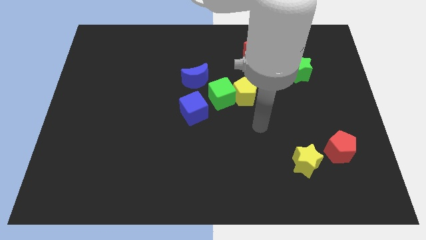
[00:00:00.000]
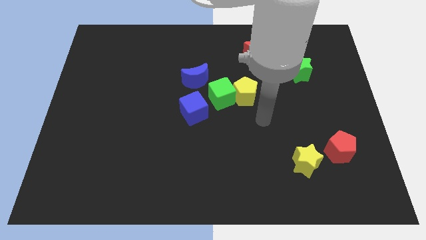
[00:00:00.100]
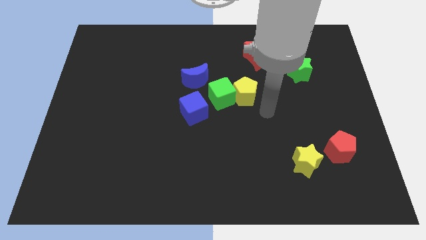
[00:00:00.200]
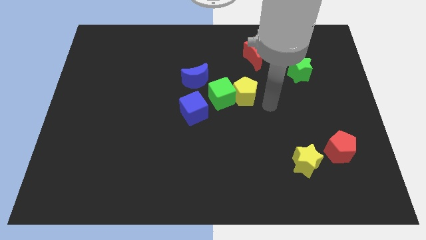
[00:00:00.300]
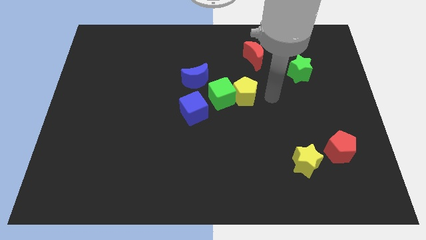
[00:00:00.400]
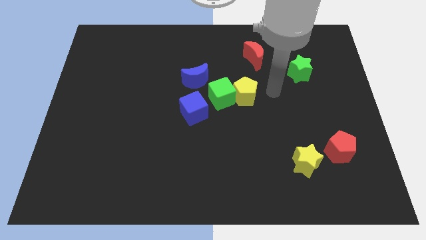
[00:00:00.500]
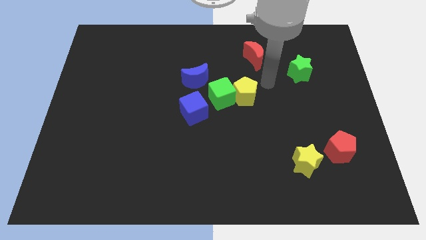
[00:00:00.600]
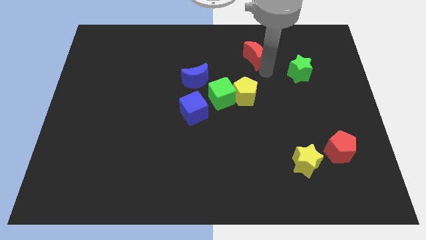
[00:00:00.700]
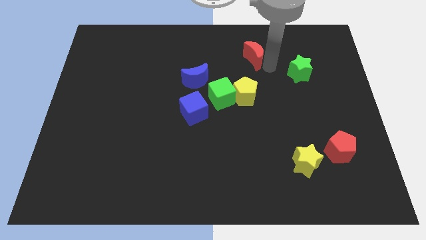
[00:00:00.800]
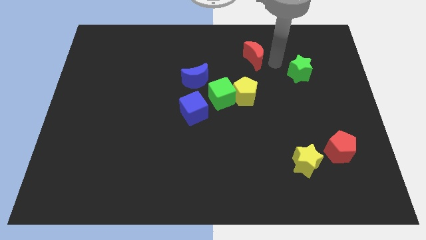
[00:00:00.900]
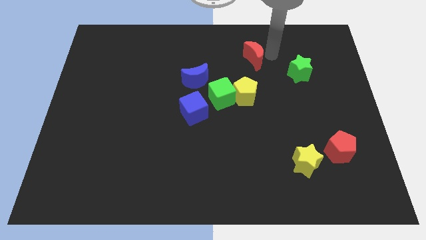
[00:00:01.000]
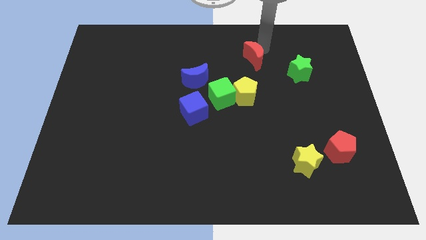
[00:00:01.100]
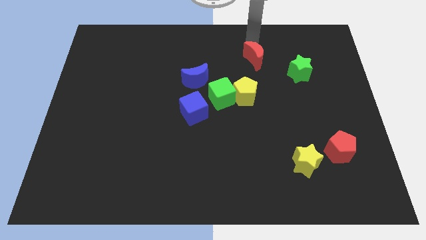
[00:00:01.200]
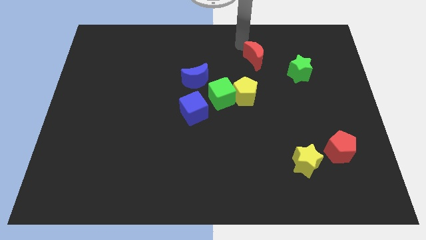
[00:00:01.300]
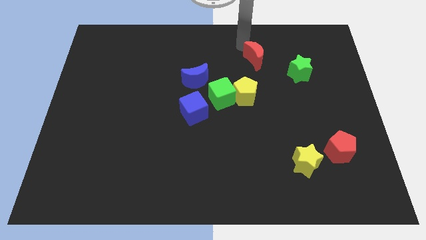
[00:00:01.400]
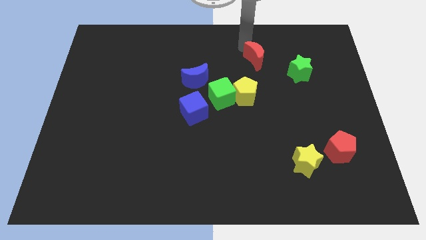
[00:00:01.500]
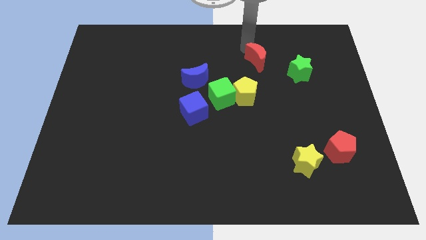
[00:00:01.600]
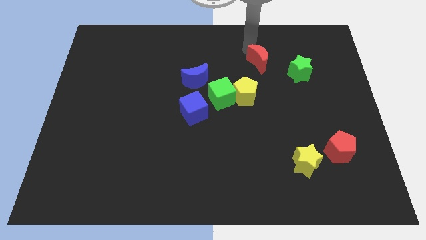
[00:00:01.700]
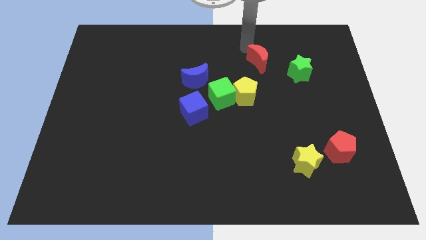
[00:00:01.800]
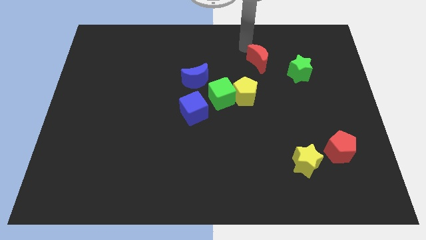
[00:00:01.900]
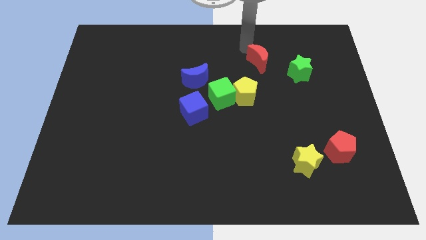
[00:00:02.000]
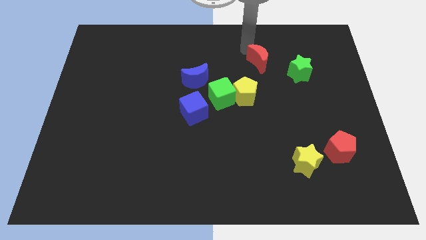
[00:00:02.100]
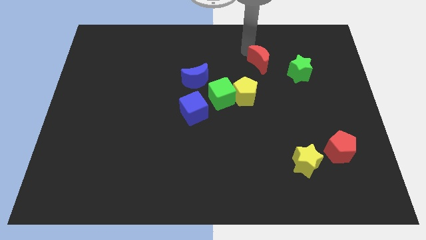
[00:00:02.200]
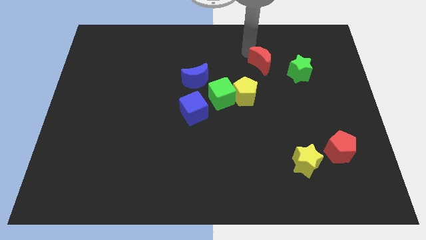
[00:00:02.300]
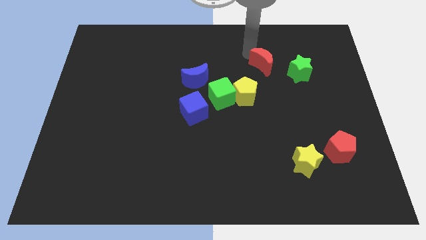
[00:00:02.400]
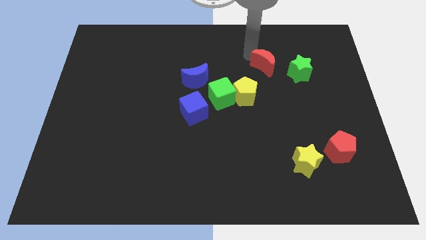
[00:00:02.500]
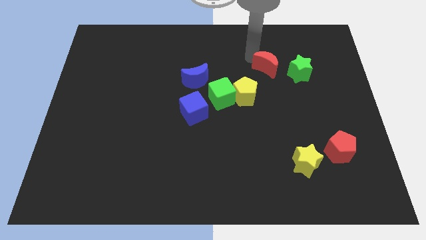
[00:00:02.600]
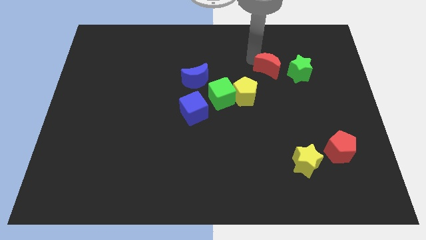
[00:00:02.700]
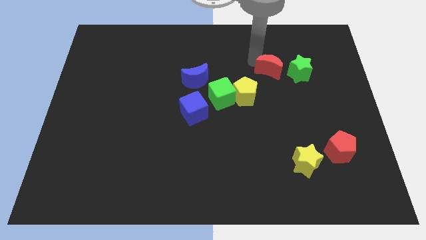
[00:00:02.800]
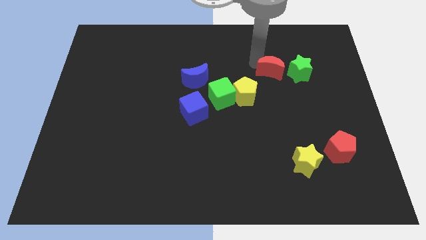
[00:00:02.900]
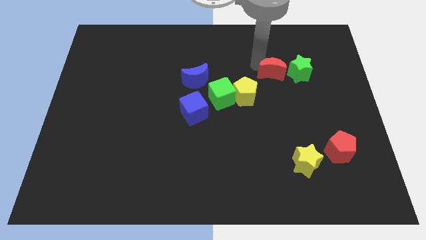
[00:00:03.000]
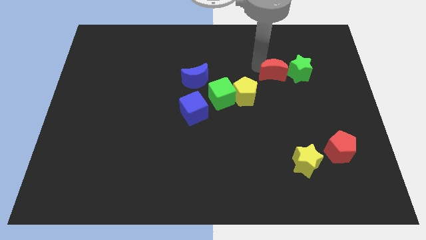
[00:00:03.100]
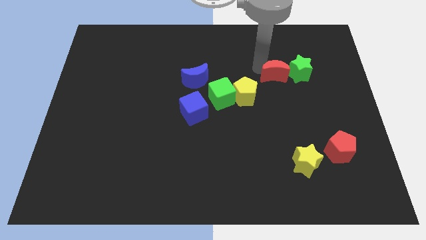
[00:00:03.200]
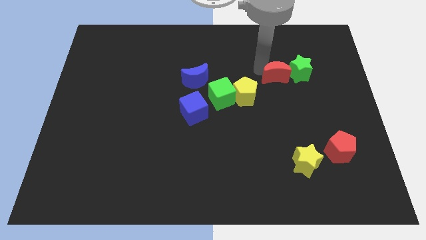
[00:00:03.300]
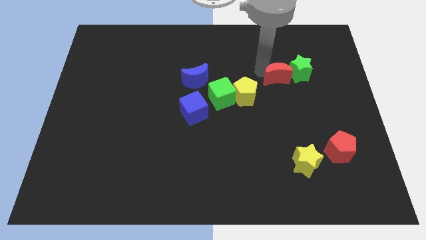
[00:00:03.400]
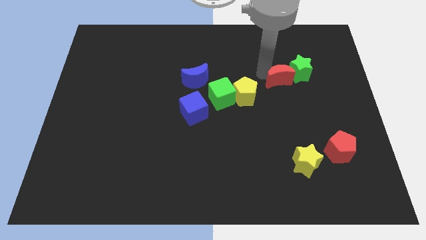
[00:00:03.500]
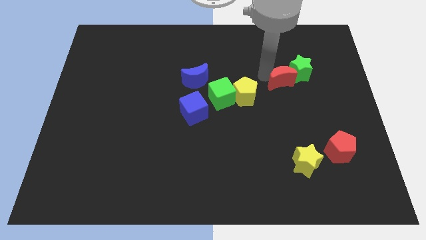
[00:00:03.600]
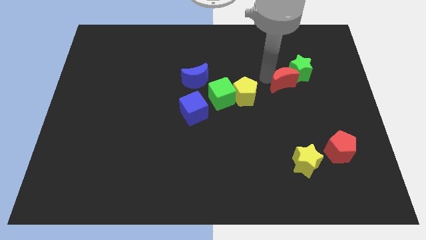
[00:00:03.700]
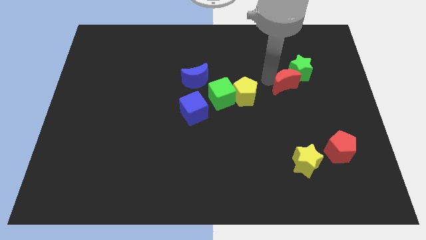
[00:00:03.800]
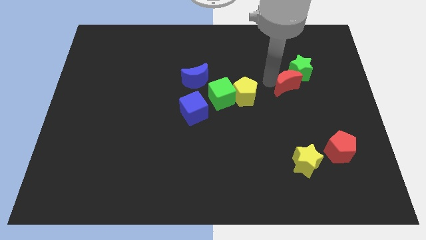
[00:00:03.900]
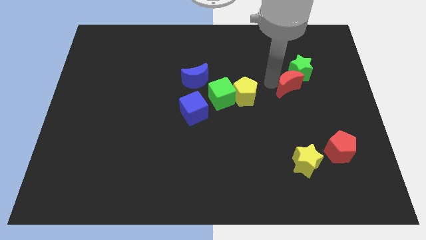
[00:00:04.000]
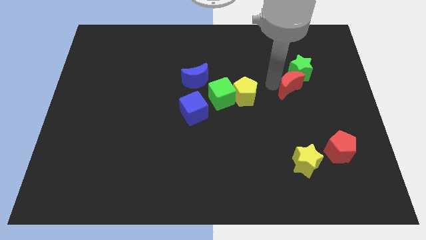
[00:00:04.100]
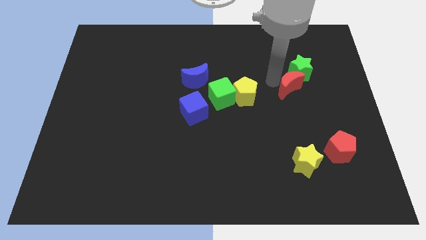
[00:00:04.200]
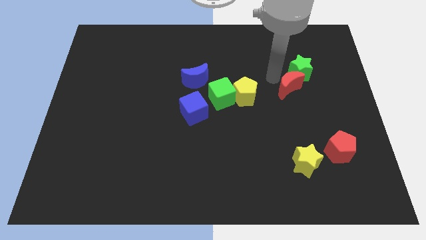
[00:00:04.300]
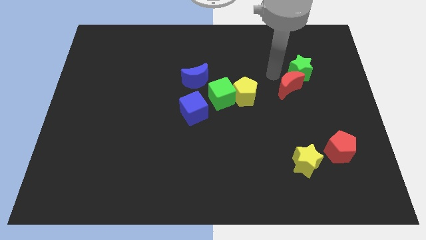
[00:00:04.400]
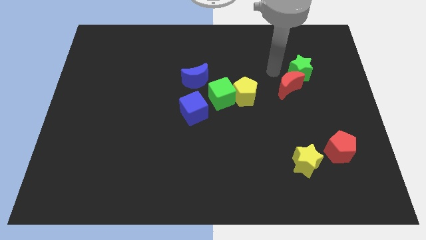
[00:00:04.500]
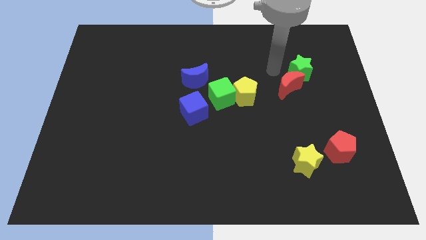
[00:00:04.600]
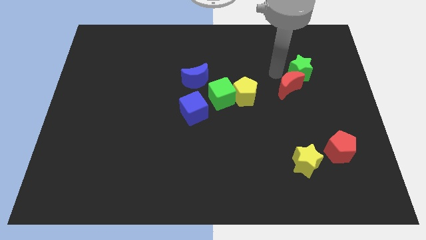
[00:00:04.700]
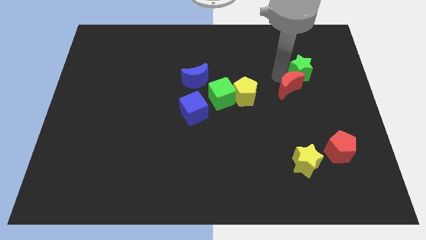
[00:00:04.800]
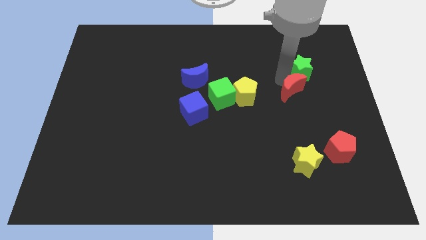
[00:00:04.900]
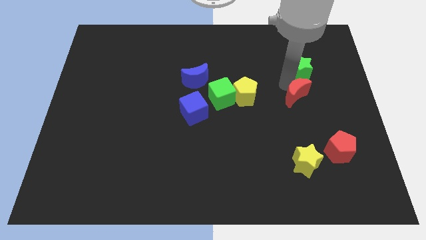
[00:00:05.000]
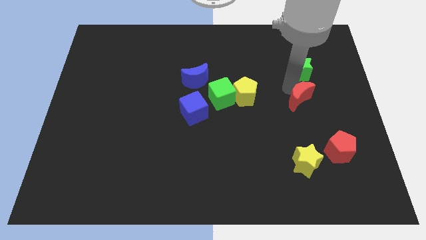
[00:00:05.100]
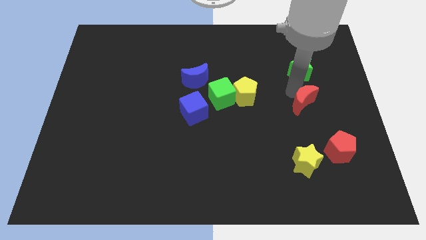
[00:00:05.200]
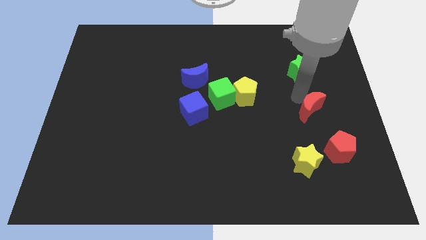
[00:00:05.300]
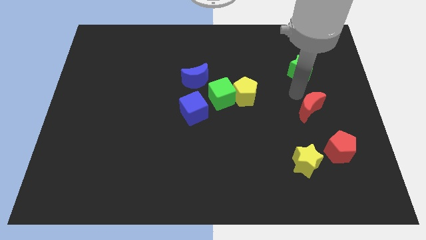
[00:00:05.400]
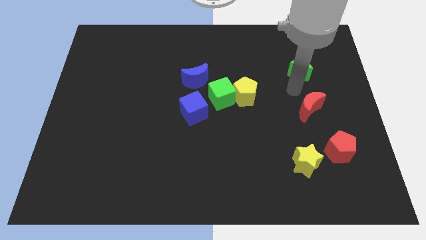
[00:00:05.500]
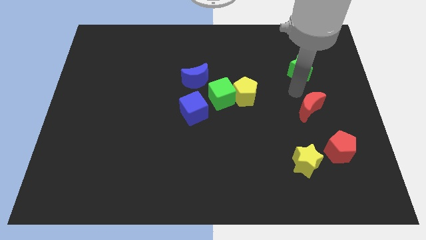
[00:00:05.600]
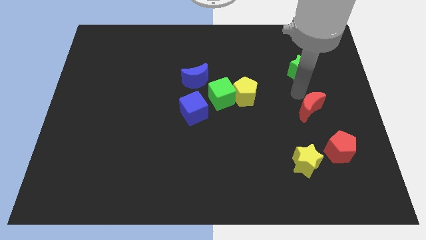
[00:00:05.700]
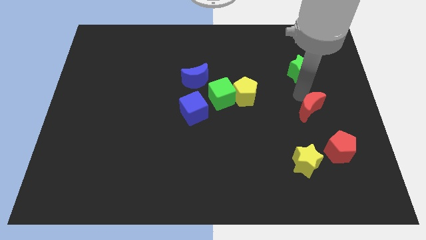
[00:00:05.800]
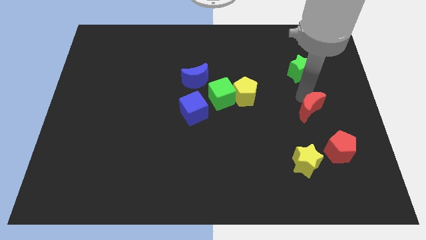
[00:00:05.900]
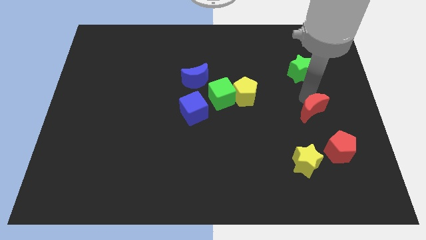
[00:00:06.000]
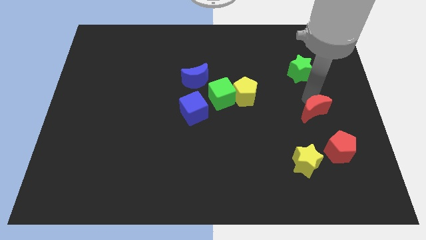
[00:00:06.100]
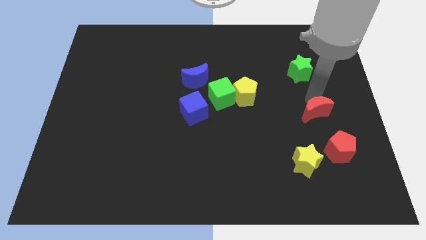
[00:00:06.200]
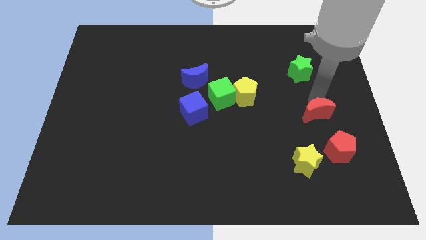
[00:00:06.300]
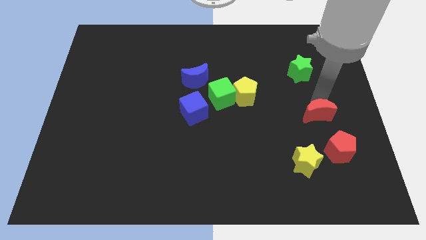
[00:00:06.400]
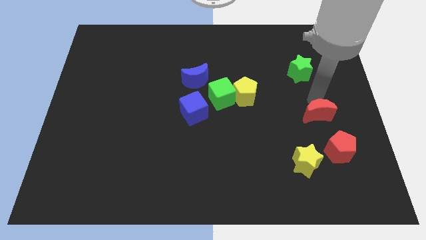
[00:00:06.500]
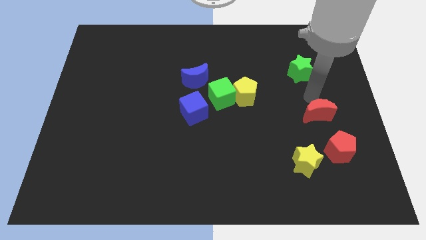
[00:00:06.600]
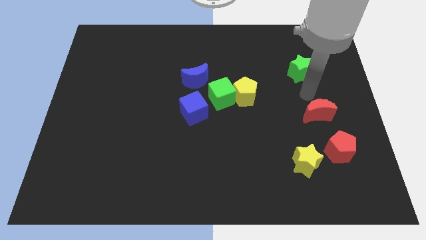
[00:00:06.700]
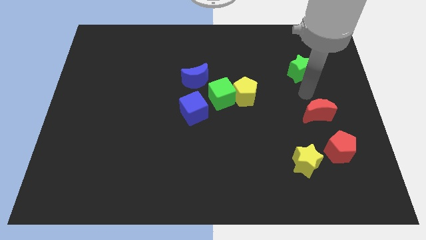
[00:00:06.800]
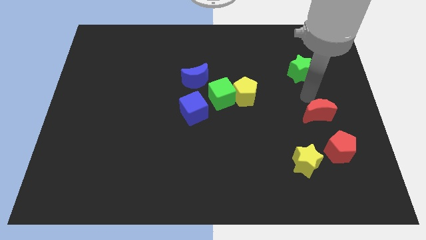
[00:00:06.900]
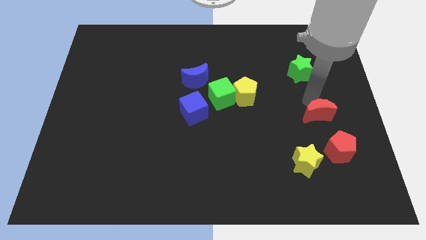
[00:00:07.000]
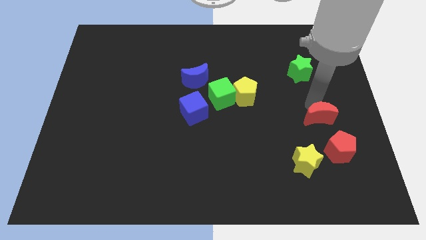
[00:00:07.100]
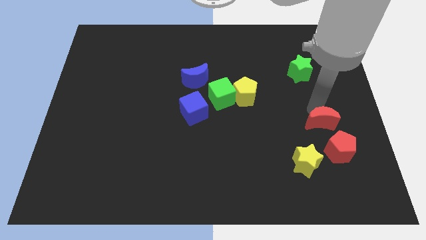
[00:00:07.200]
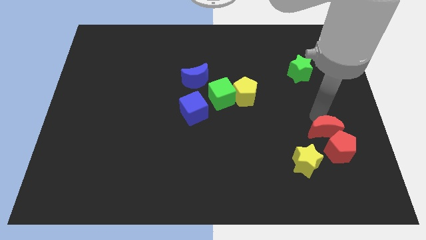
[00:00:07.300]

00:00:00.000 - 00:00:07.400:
push the red moon next to the red pentagon

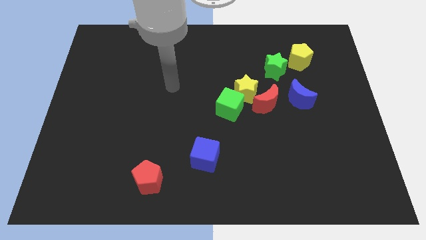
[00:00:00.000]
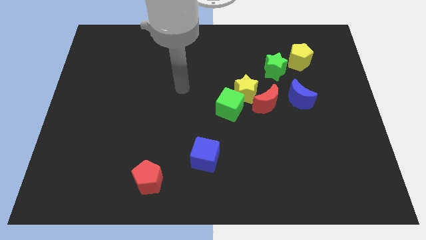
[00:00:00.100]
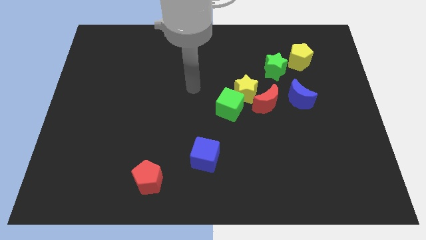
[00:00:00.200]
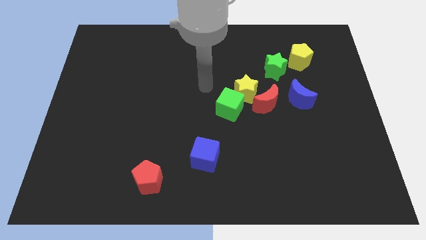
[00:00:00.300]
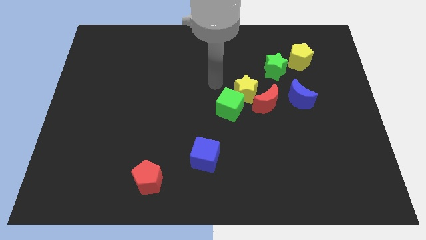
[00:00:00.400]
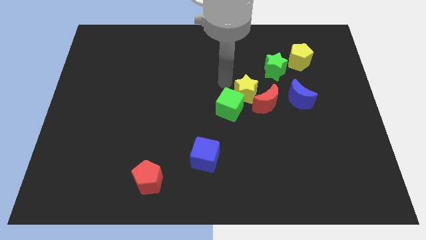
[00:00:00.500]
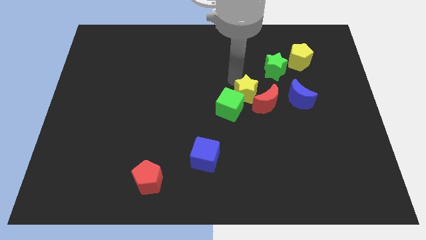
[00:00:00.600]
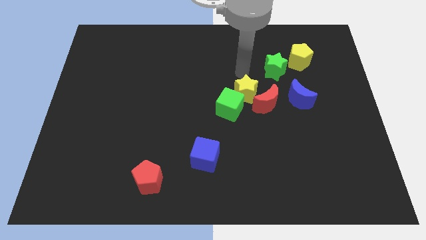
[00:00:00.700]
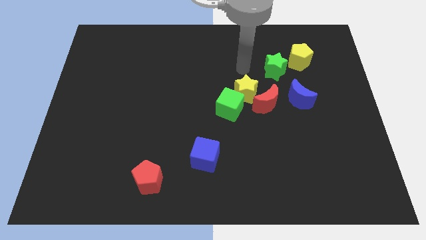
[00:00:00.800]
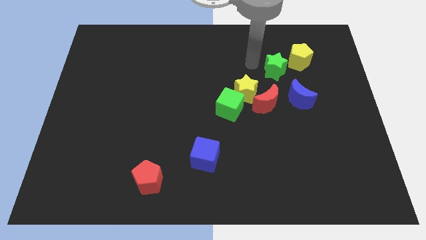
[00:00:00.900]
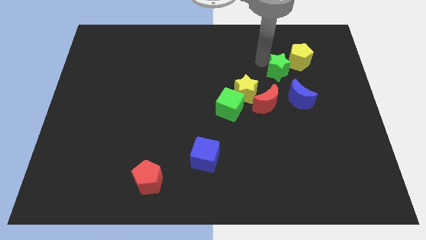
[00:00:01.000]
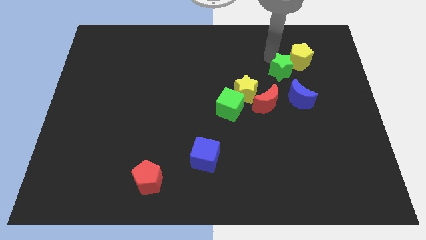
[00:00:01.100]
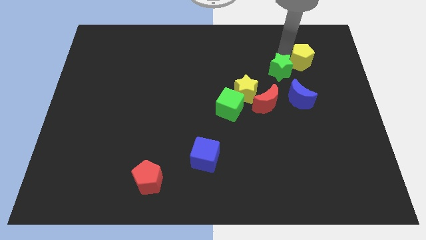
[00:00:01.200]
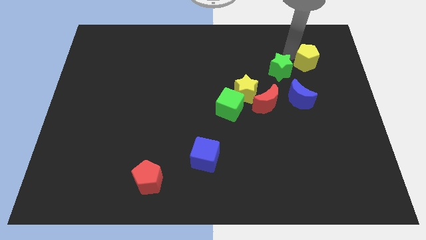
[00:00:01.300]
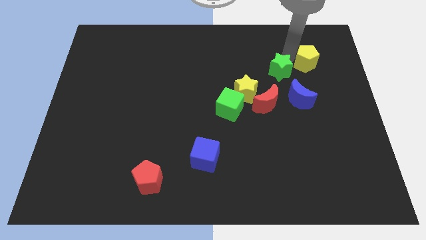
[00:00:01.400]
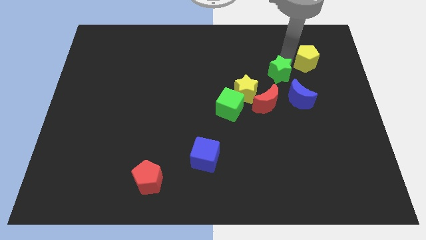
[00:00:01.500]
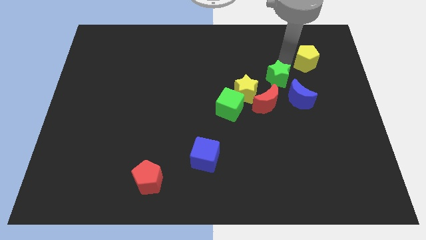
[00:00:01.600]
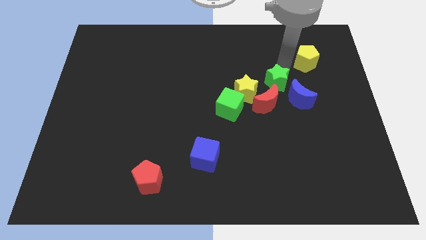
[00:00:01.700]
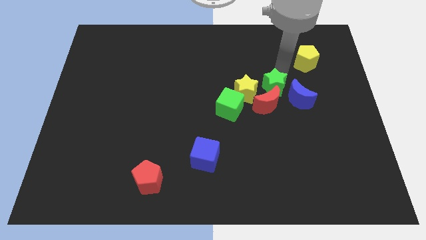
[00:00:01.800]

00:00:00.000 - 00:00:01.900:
put the green star towards the red moon
